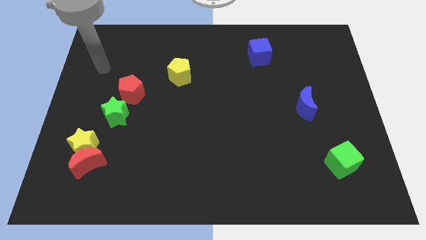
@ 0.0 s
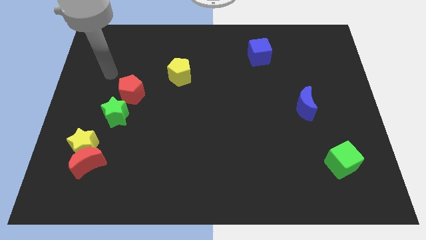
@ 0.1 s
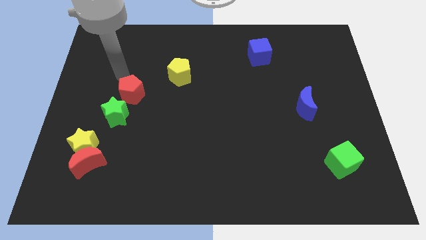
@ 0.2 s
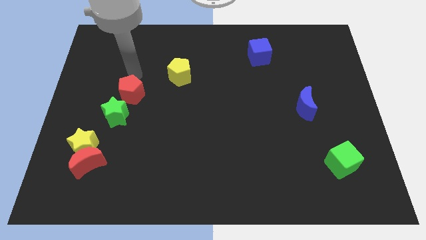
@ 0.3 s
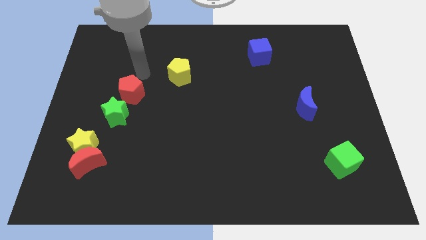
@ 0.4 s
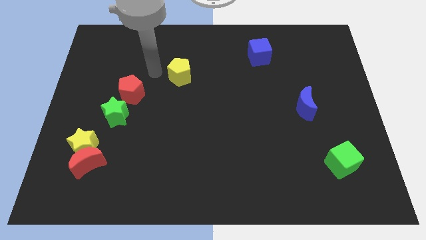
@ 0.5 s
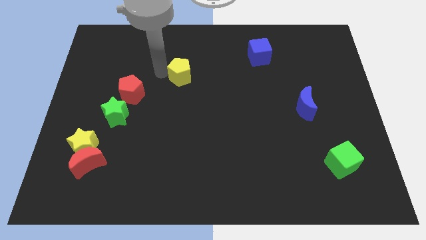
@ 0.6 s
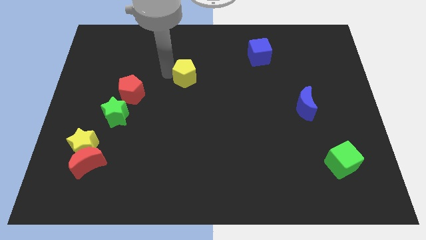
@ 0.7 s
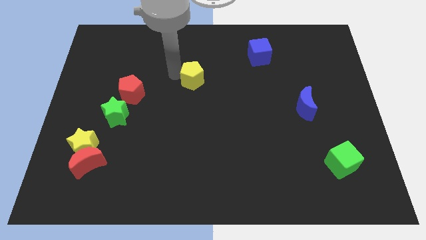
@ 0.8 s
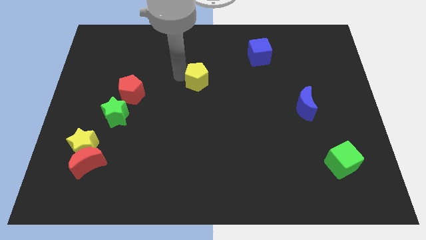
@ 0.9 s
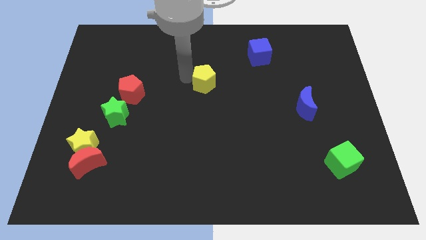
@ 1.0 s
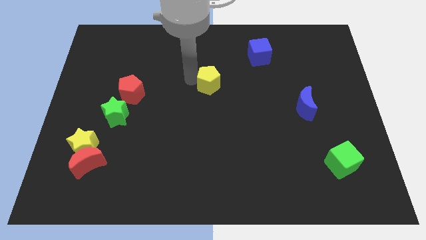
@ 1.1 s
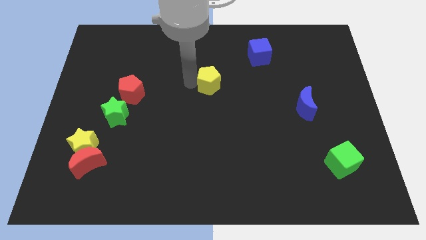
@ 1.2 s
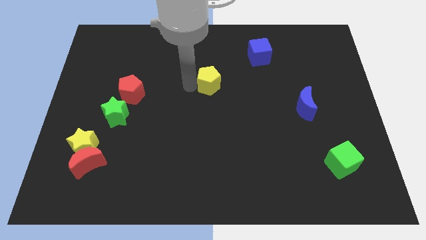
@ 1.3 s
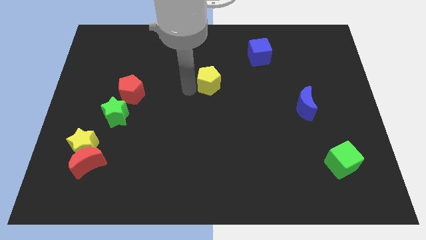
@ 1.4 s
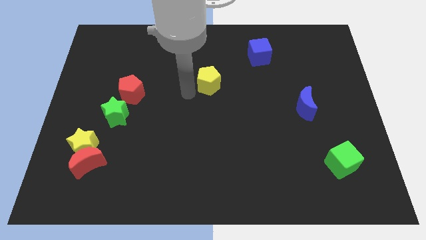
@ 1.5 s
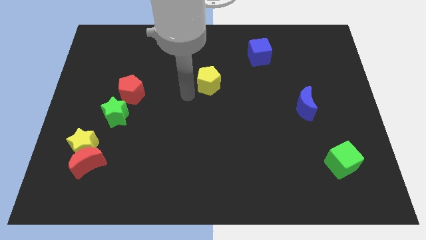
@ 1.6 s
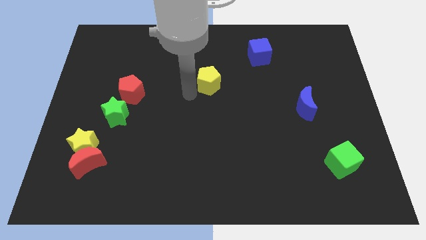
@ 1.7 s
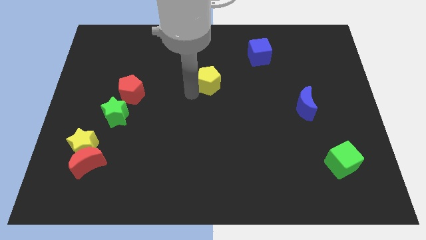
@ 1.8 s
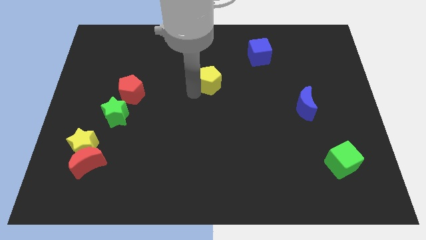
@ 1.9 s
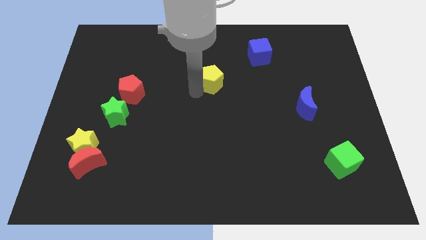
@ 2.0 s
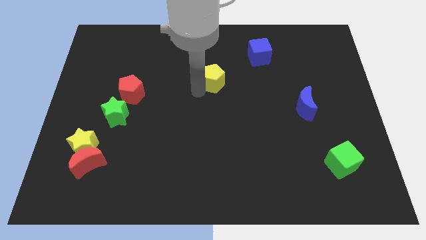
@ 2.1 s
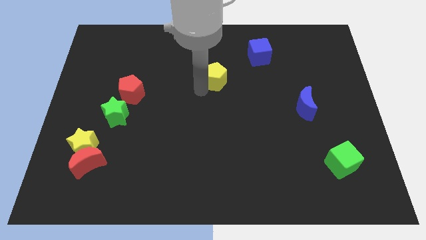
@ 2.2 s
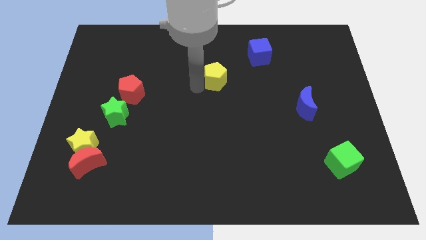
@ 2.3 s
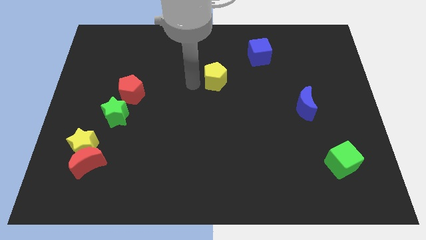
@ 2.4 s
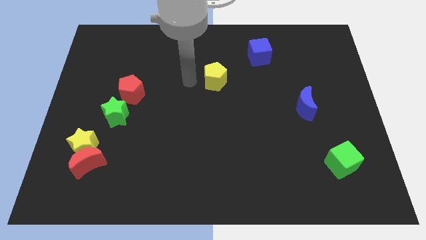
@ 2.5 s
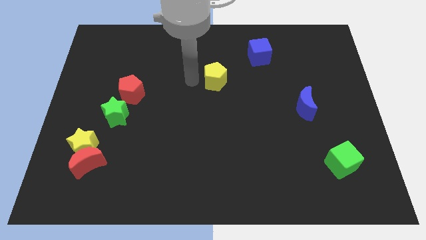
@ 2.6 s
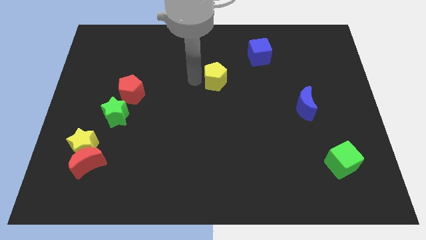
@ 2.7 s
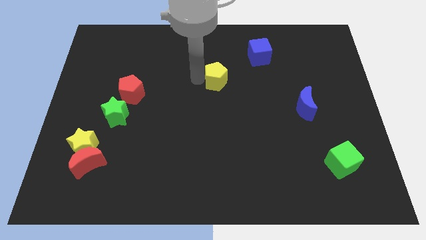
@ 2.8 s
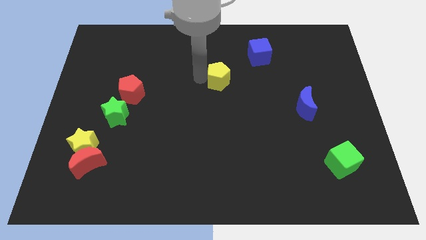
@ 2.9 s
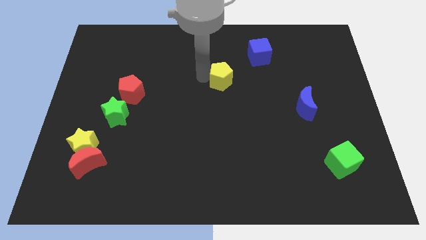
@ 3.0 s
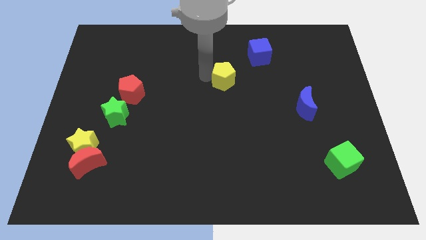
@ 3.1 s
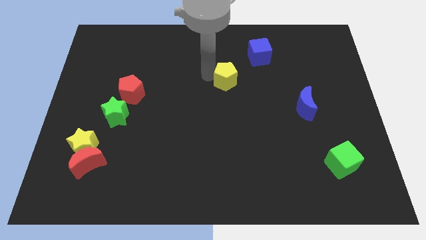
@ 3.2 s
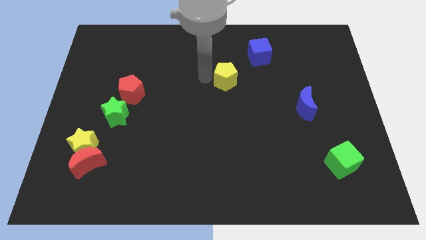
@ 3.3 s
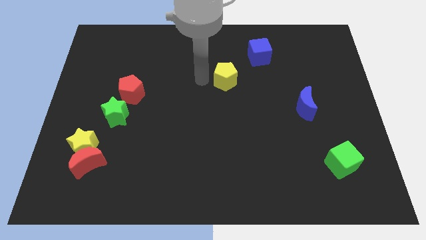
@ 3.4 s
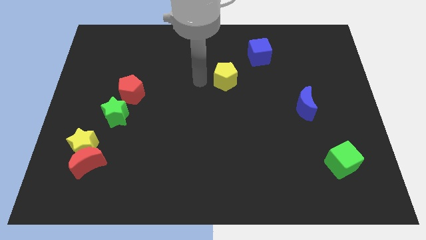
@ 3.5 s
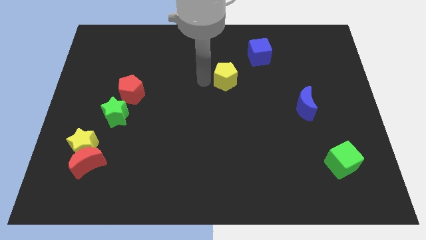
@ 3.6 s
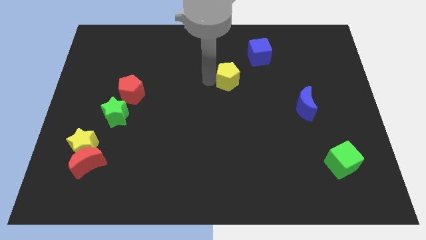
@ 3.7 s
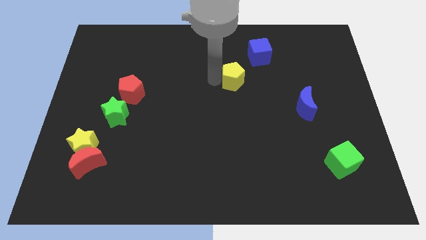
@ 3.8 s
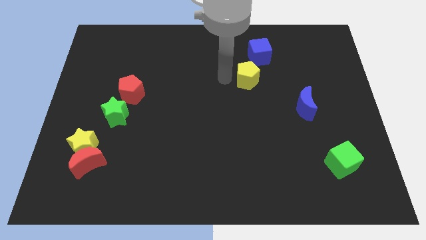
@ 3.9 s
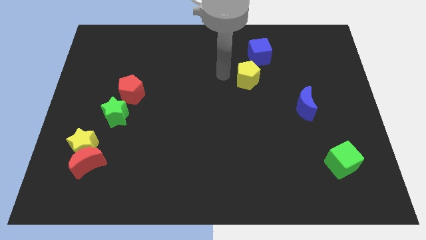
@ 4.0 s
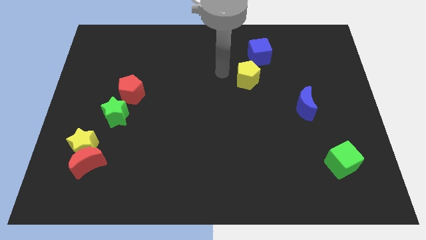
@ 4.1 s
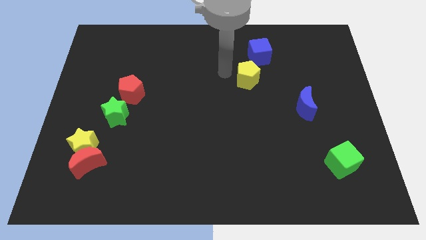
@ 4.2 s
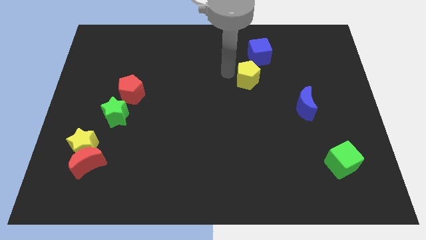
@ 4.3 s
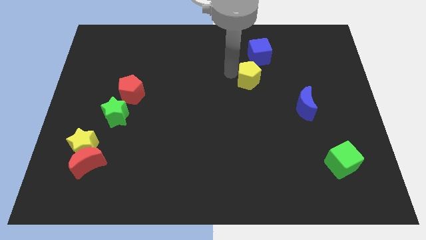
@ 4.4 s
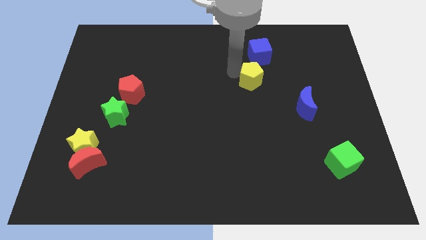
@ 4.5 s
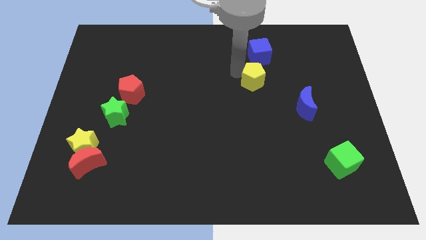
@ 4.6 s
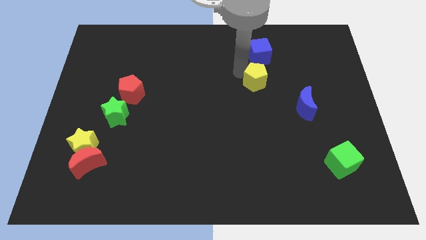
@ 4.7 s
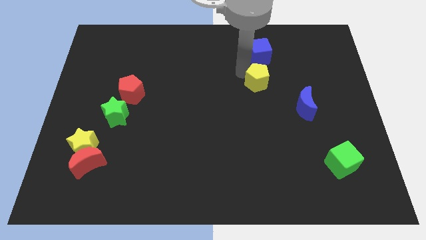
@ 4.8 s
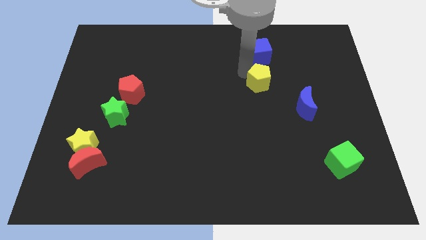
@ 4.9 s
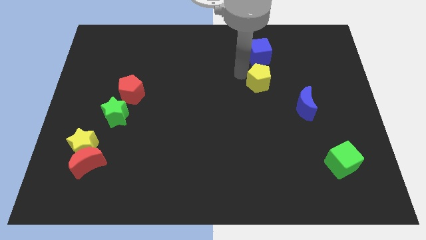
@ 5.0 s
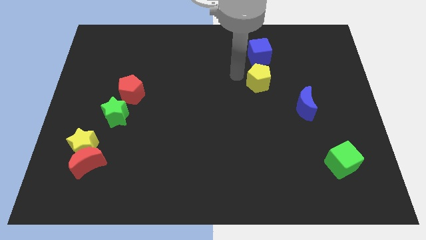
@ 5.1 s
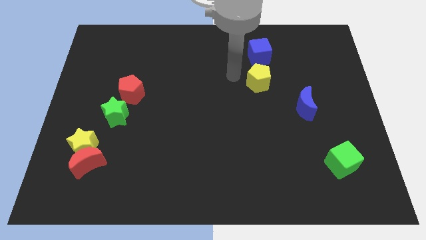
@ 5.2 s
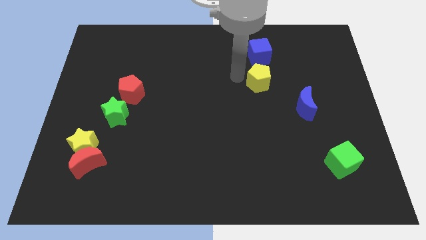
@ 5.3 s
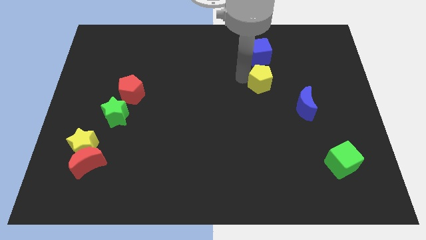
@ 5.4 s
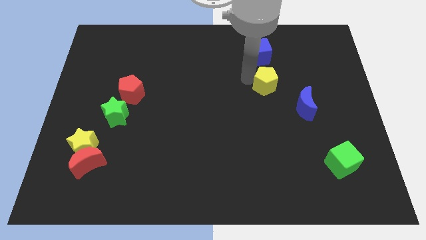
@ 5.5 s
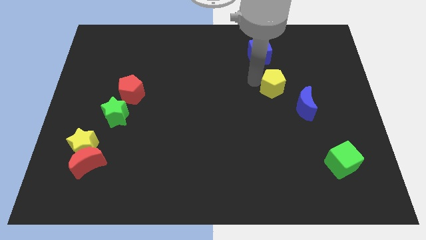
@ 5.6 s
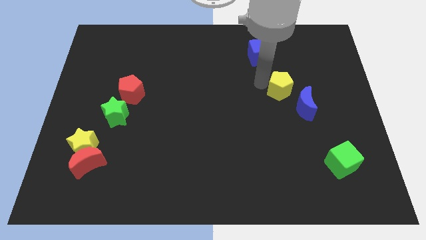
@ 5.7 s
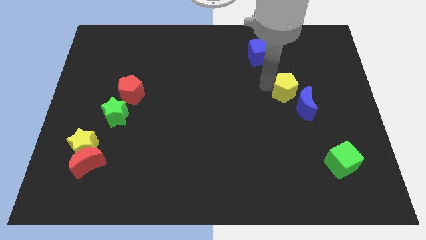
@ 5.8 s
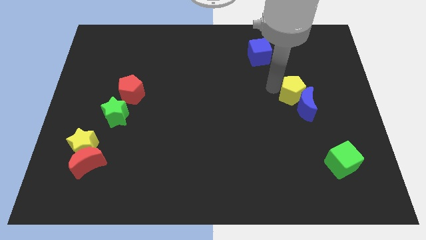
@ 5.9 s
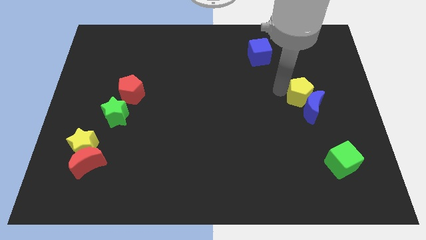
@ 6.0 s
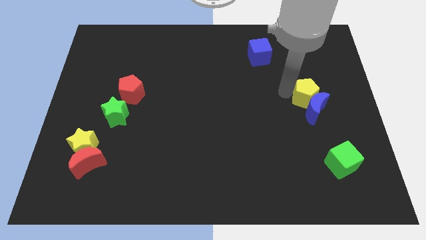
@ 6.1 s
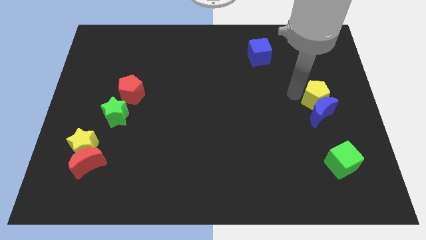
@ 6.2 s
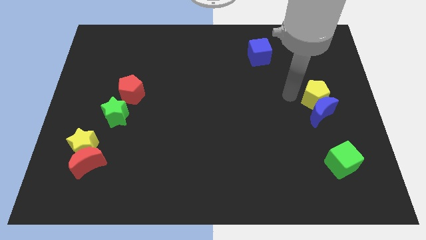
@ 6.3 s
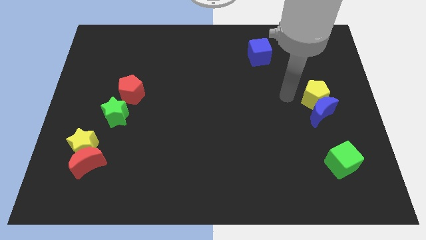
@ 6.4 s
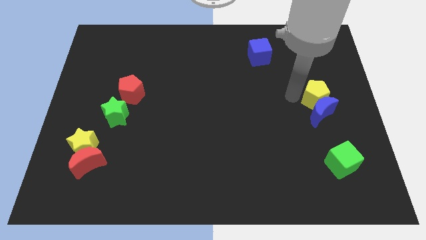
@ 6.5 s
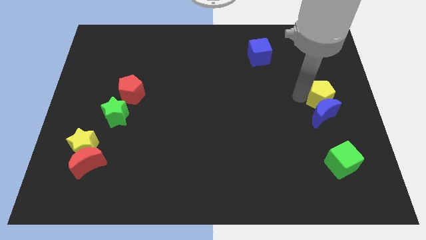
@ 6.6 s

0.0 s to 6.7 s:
move the yellow pentagon to the right side
